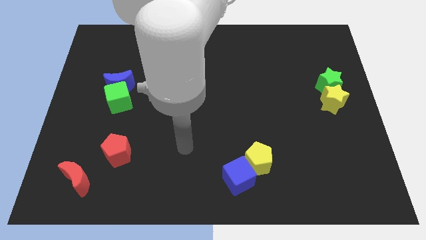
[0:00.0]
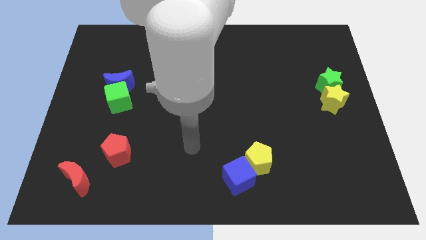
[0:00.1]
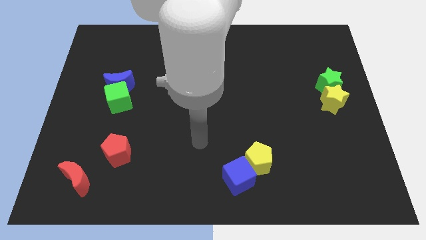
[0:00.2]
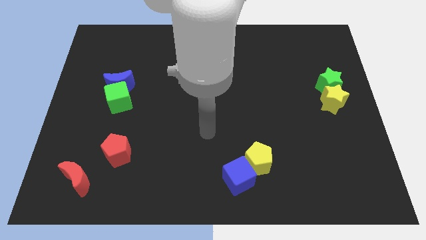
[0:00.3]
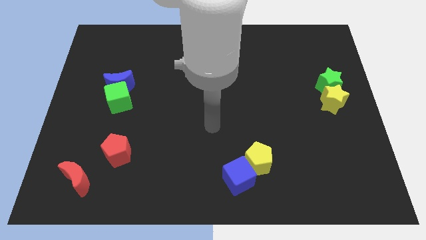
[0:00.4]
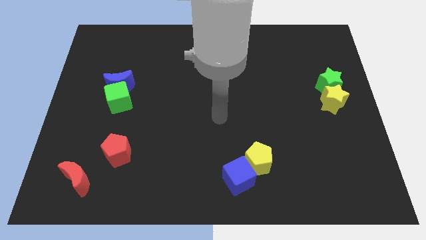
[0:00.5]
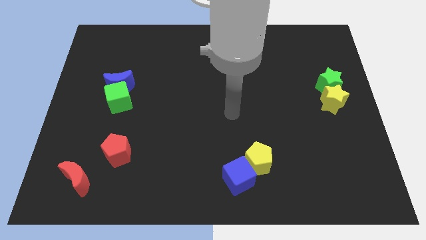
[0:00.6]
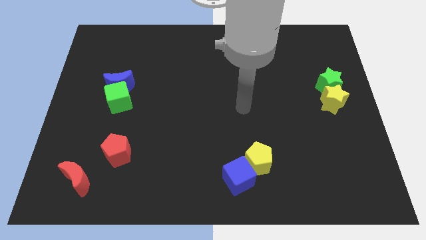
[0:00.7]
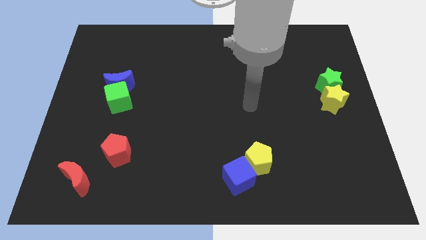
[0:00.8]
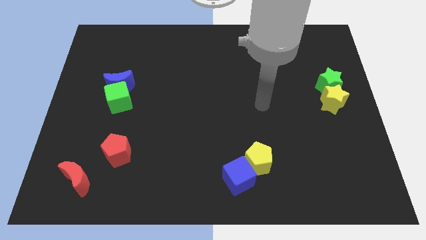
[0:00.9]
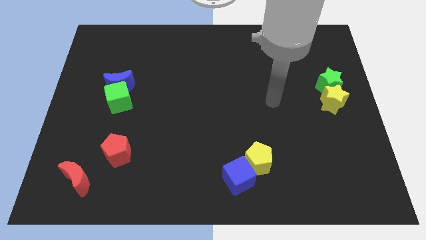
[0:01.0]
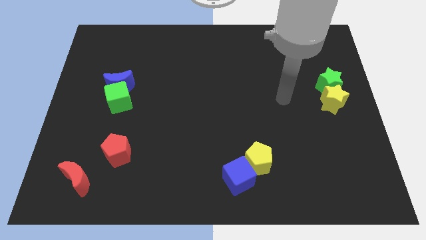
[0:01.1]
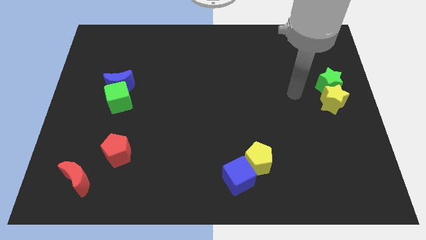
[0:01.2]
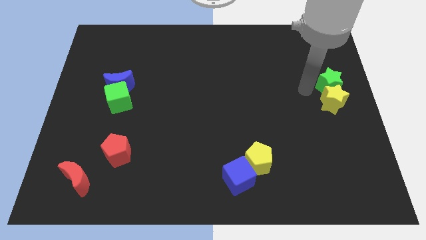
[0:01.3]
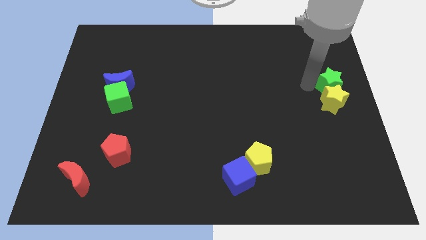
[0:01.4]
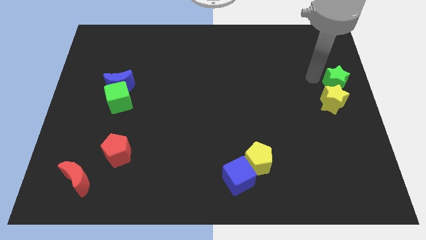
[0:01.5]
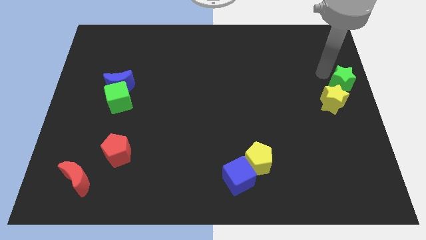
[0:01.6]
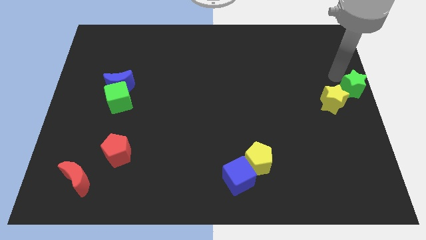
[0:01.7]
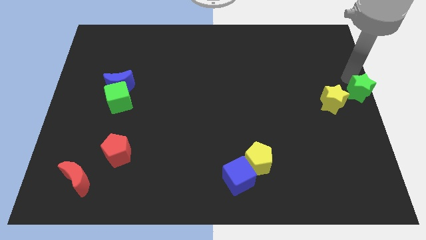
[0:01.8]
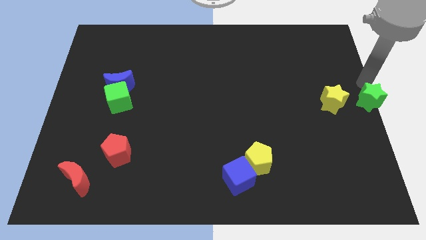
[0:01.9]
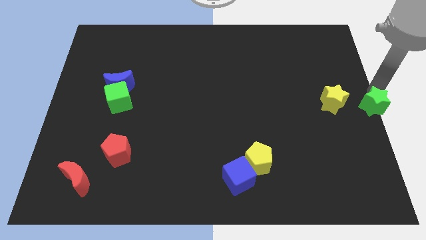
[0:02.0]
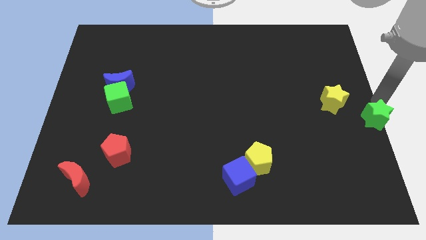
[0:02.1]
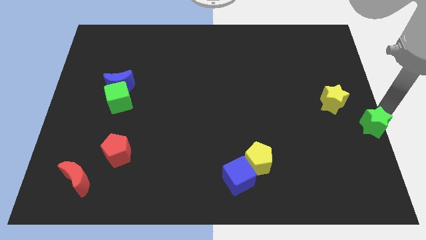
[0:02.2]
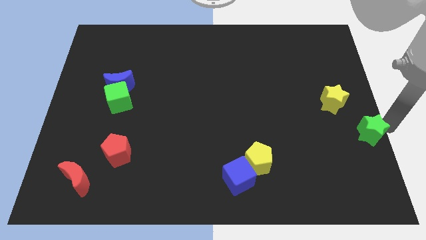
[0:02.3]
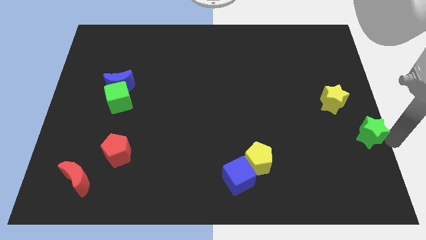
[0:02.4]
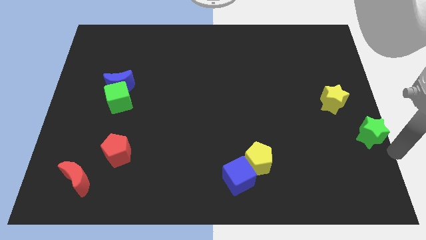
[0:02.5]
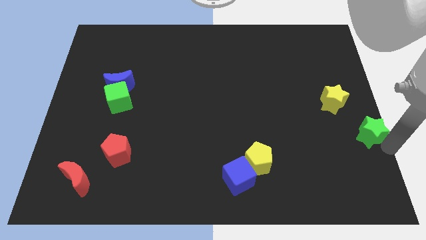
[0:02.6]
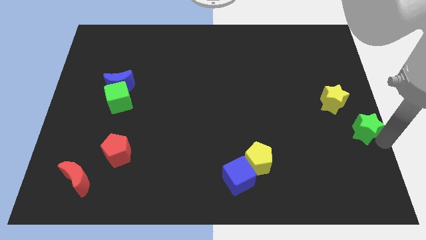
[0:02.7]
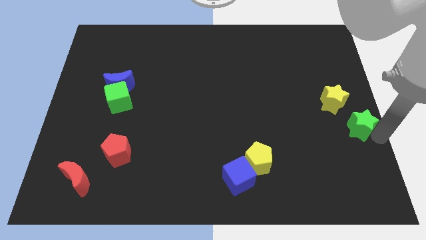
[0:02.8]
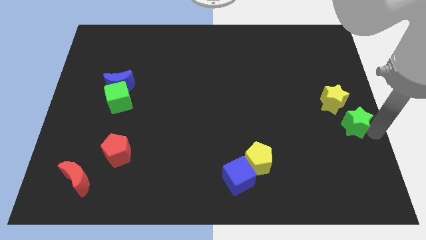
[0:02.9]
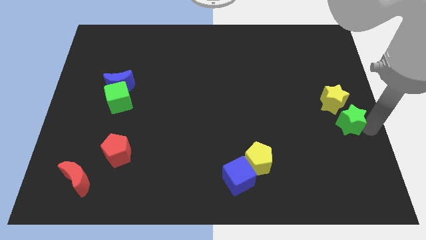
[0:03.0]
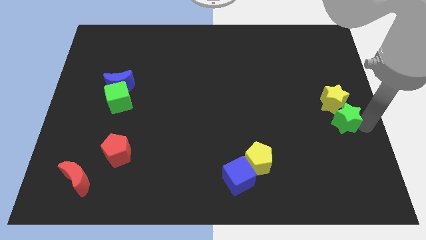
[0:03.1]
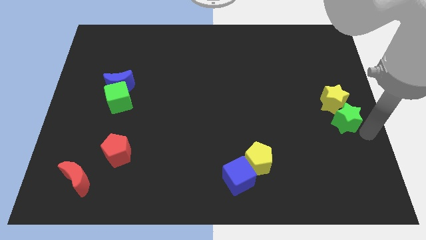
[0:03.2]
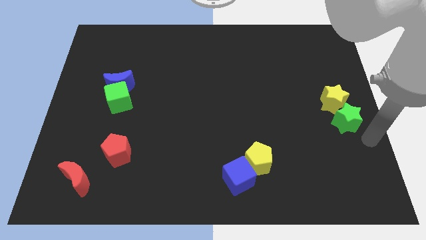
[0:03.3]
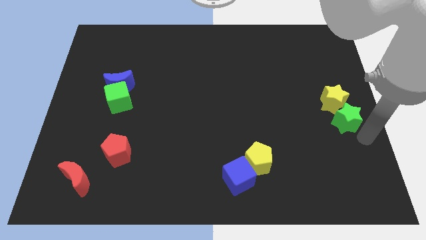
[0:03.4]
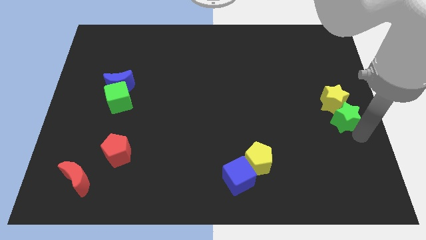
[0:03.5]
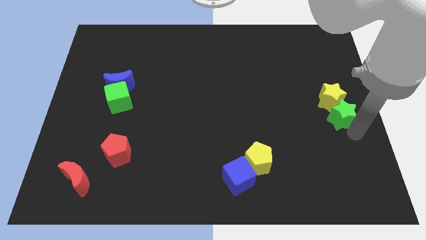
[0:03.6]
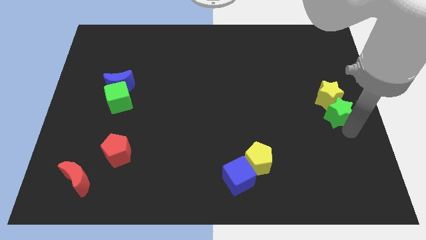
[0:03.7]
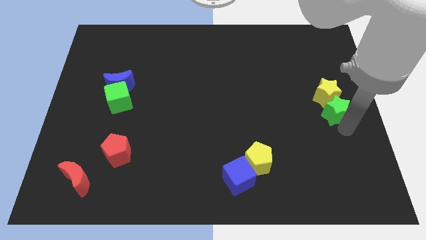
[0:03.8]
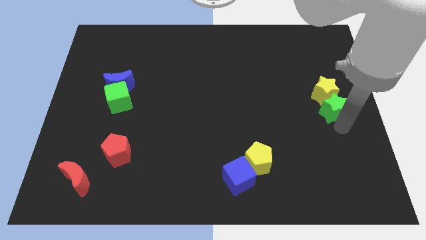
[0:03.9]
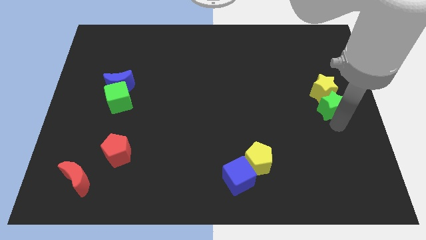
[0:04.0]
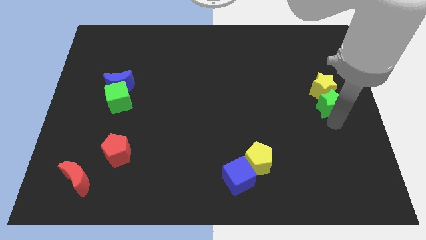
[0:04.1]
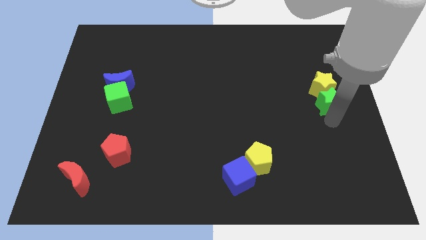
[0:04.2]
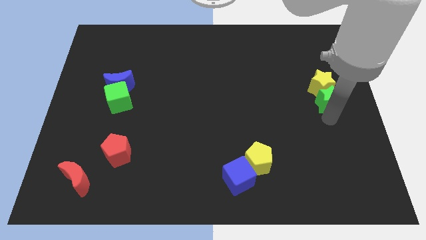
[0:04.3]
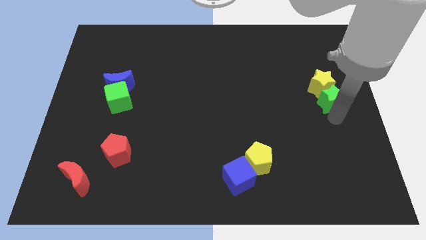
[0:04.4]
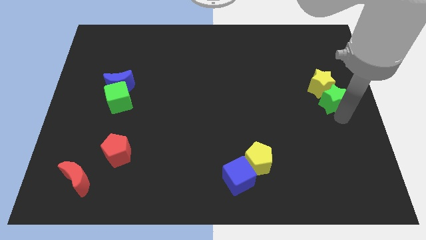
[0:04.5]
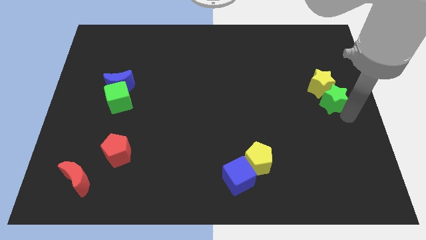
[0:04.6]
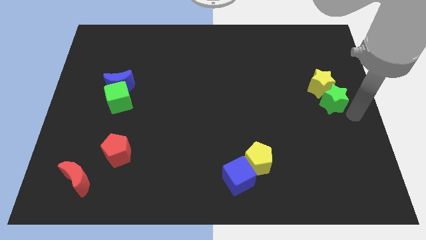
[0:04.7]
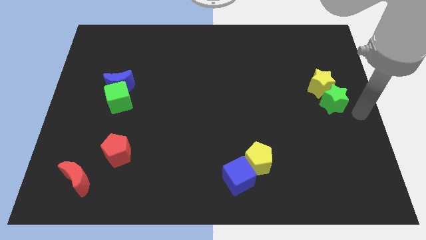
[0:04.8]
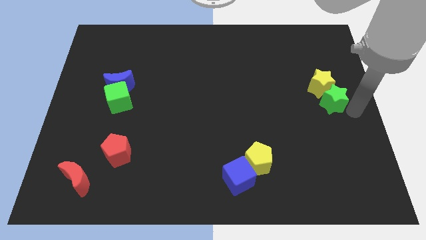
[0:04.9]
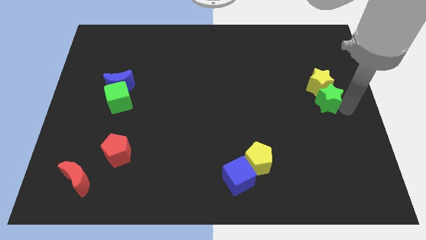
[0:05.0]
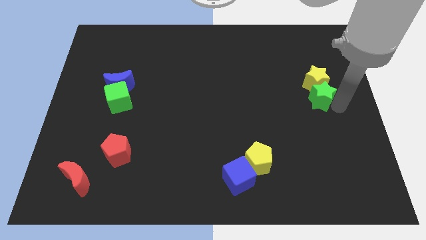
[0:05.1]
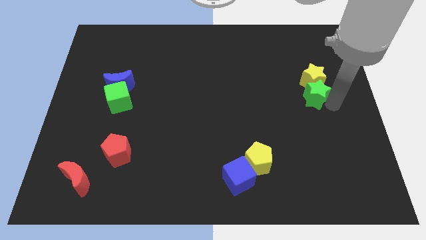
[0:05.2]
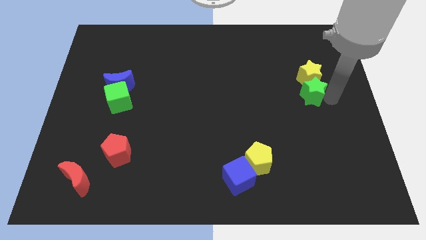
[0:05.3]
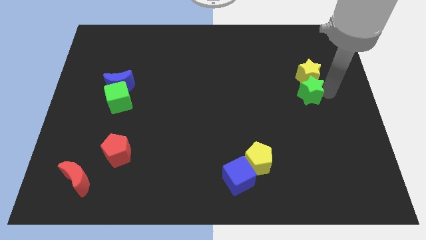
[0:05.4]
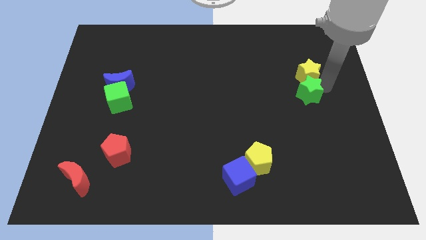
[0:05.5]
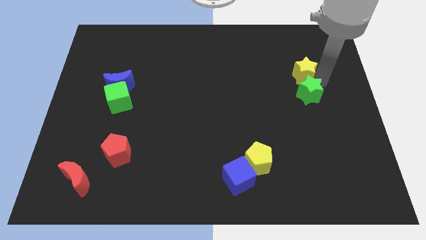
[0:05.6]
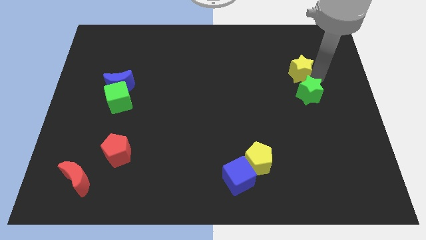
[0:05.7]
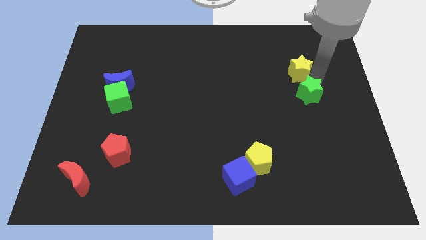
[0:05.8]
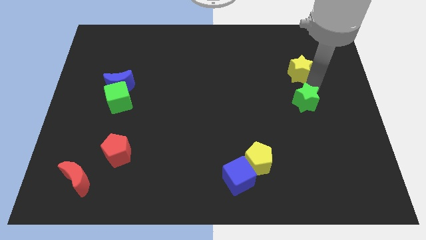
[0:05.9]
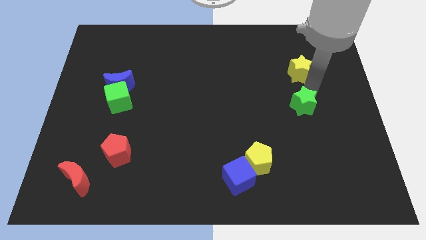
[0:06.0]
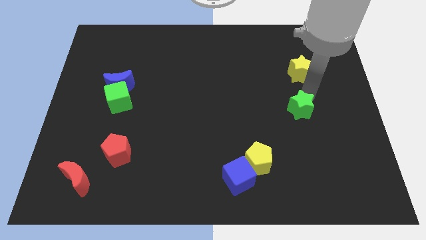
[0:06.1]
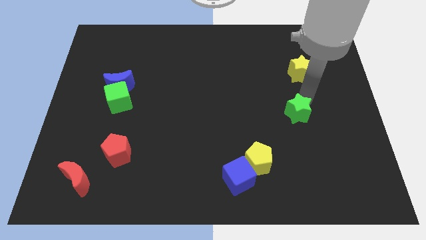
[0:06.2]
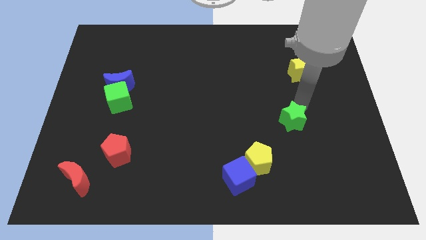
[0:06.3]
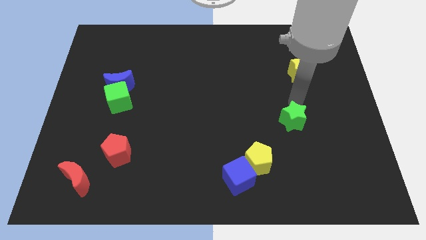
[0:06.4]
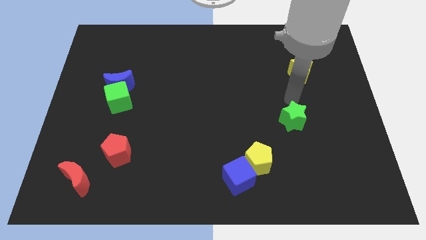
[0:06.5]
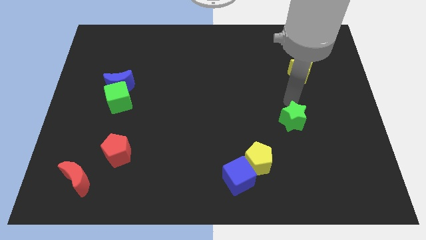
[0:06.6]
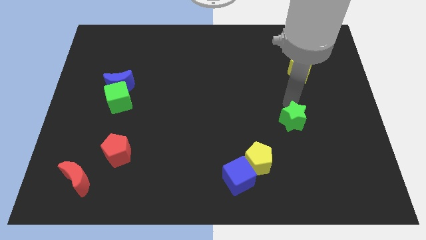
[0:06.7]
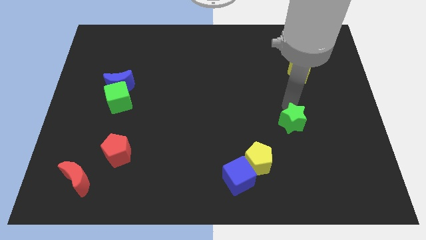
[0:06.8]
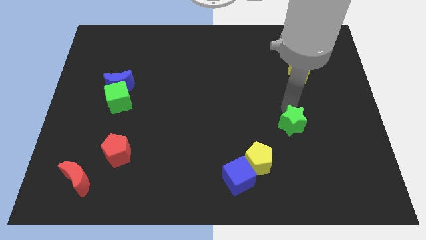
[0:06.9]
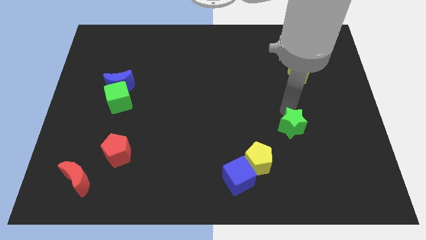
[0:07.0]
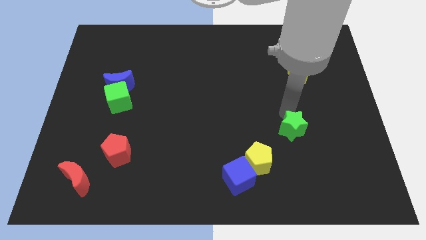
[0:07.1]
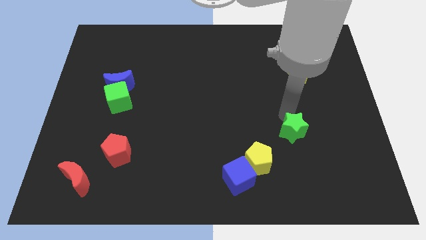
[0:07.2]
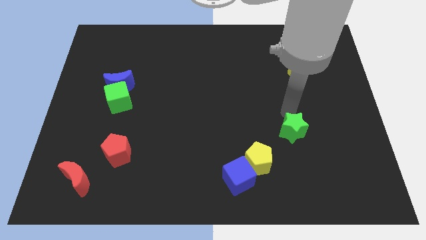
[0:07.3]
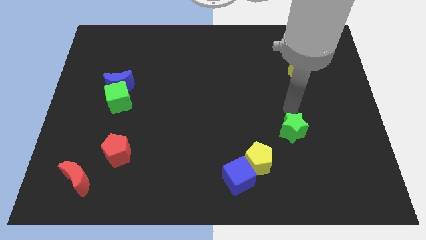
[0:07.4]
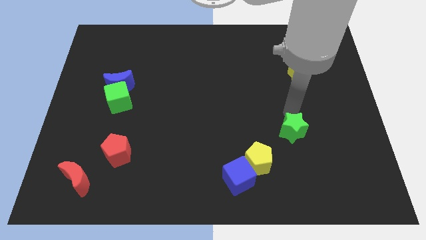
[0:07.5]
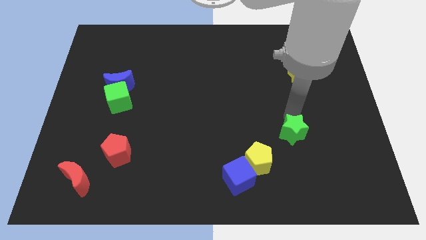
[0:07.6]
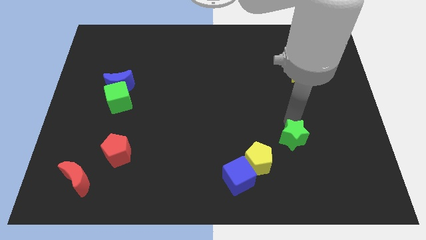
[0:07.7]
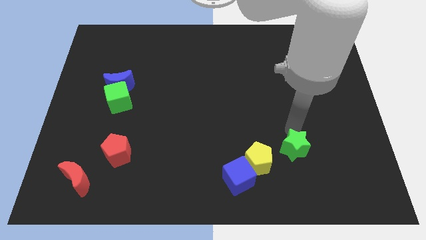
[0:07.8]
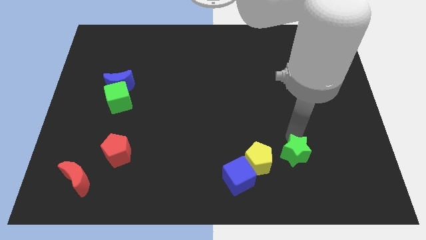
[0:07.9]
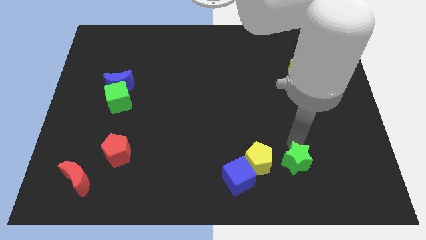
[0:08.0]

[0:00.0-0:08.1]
move the green star to the right of the blue cube
